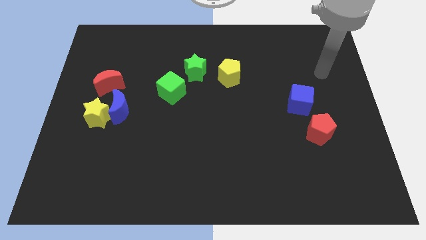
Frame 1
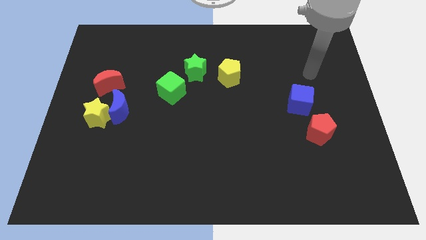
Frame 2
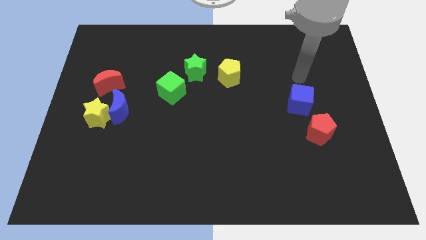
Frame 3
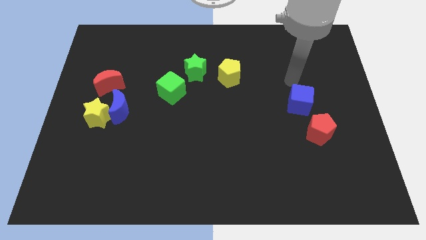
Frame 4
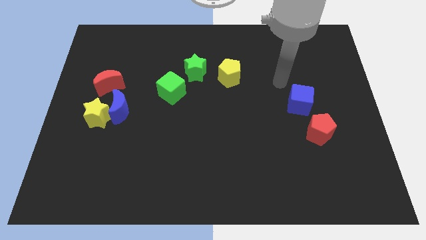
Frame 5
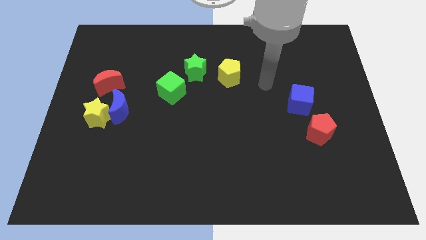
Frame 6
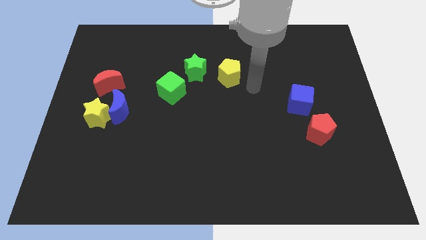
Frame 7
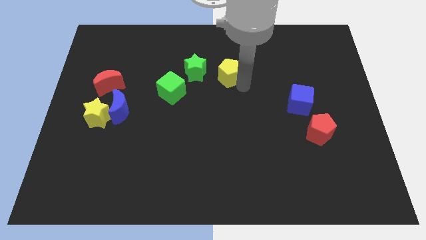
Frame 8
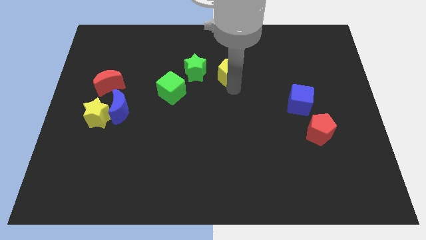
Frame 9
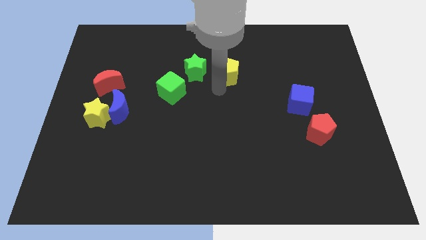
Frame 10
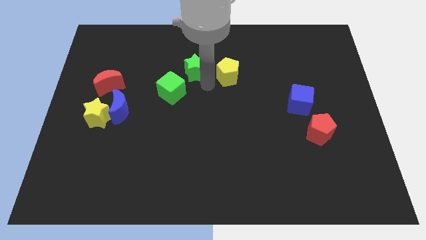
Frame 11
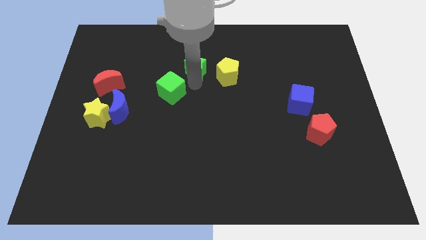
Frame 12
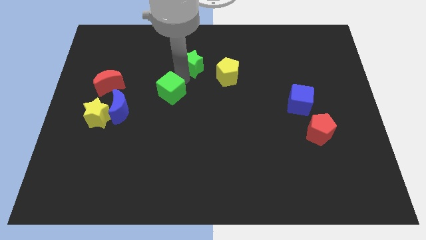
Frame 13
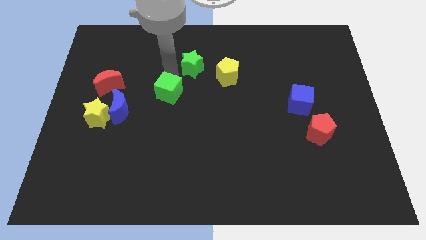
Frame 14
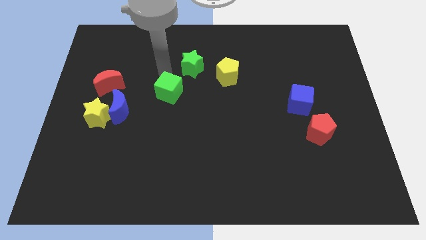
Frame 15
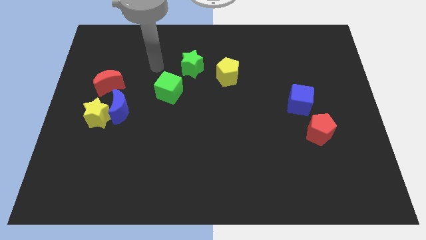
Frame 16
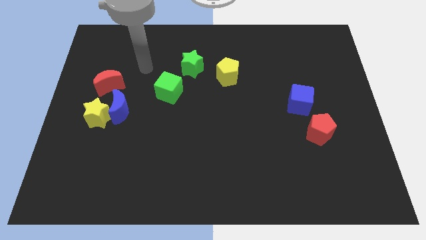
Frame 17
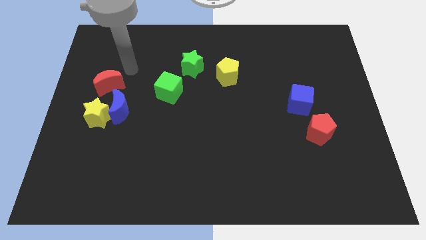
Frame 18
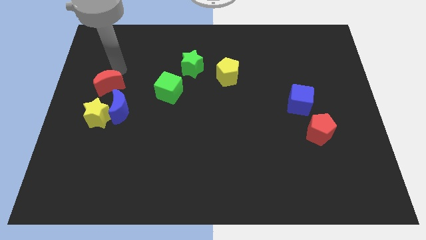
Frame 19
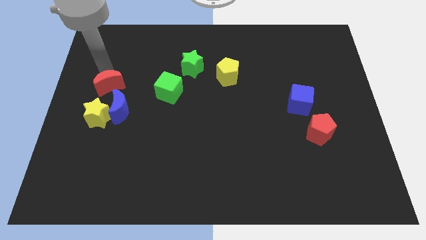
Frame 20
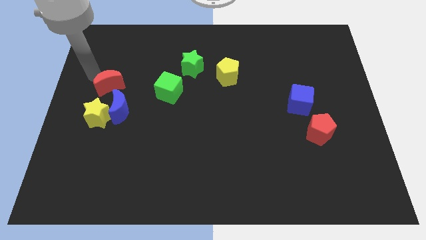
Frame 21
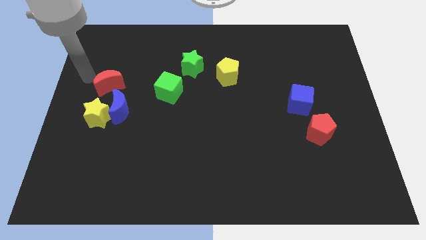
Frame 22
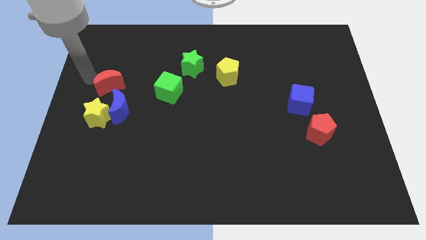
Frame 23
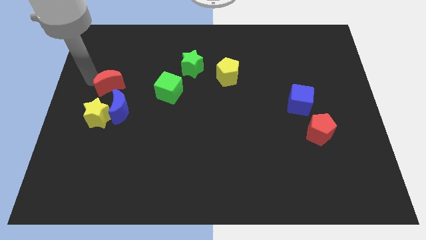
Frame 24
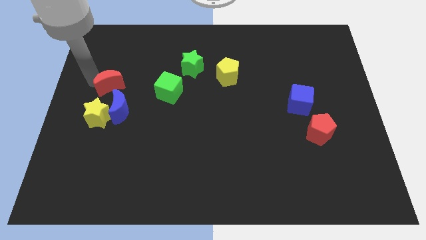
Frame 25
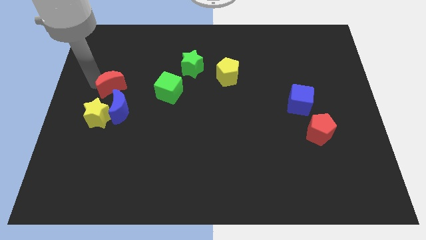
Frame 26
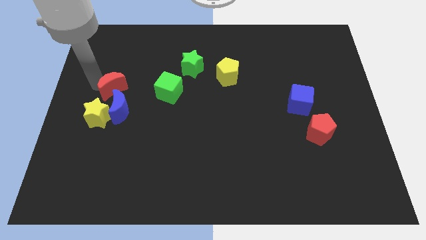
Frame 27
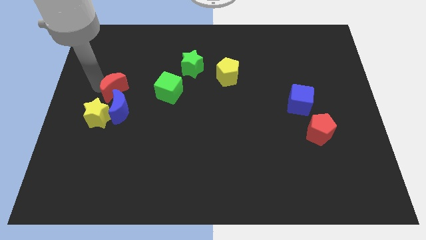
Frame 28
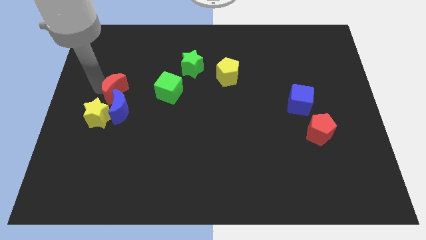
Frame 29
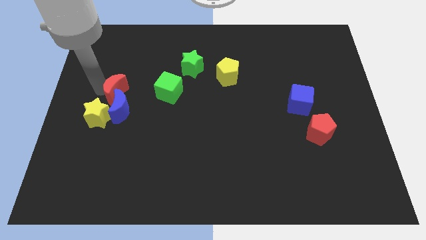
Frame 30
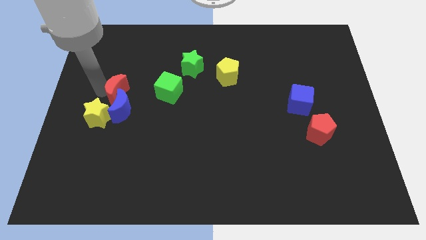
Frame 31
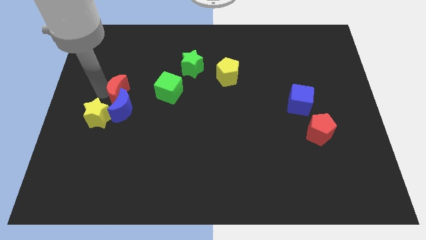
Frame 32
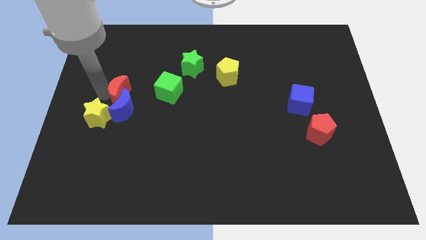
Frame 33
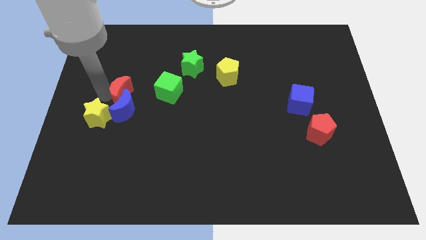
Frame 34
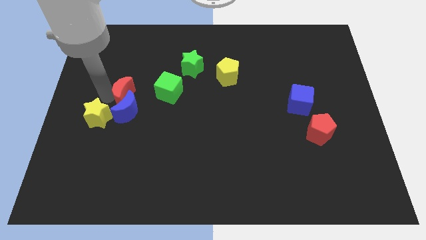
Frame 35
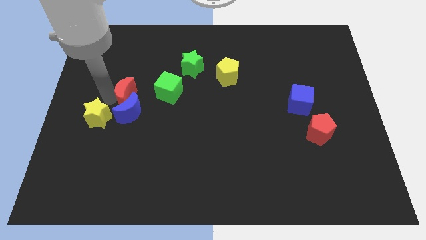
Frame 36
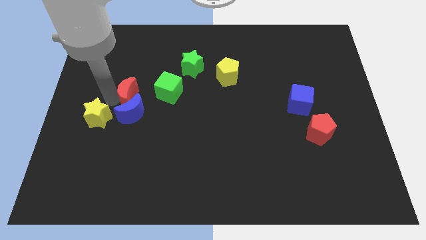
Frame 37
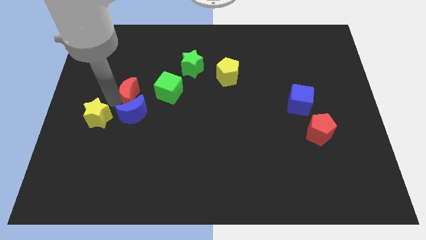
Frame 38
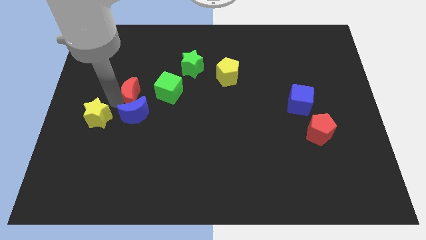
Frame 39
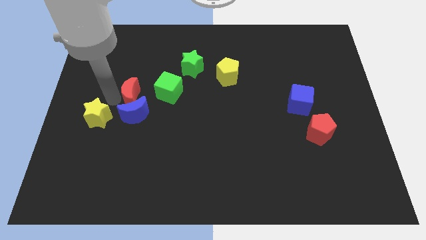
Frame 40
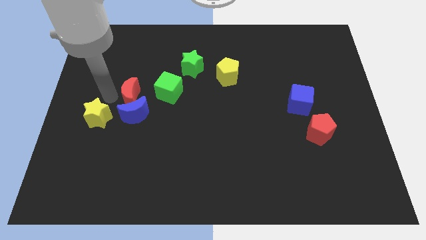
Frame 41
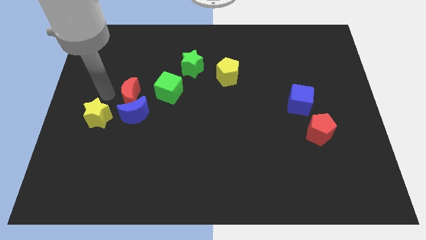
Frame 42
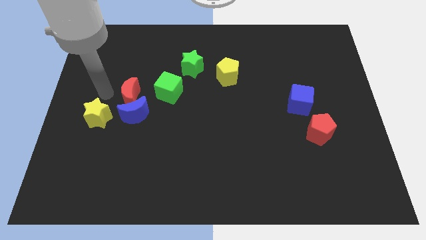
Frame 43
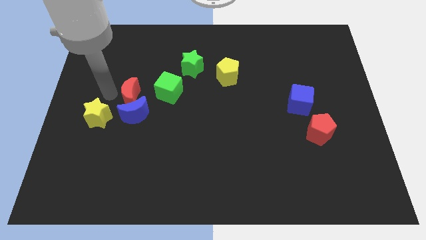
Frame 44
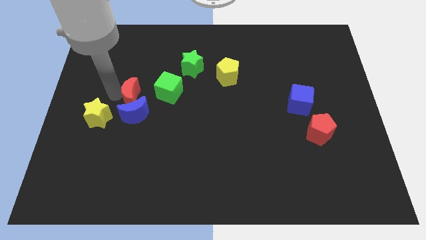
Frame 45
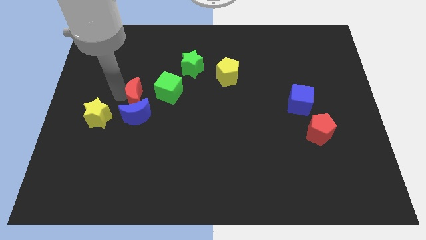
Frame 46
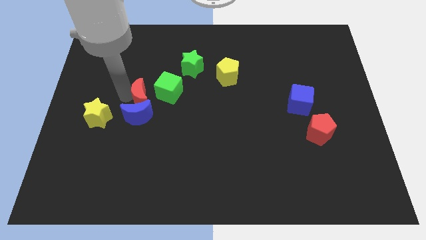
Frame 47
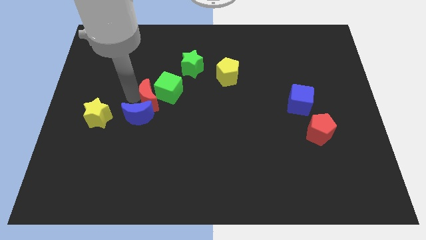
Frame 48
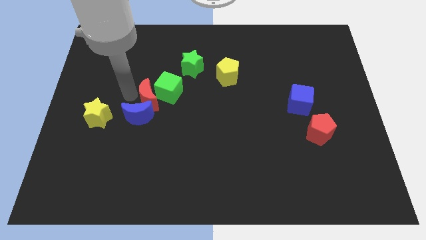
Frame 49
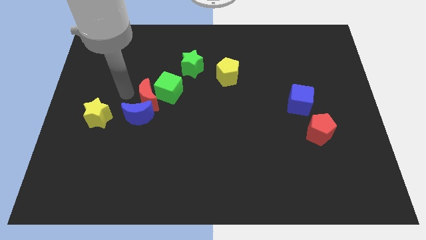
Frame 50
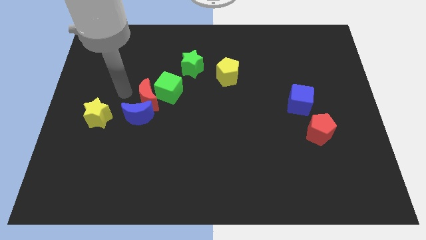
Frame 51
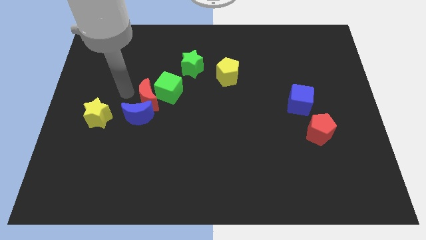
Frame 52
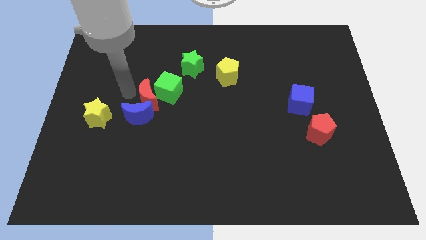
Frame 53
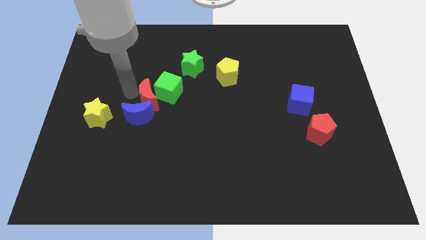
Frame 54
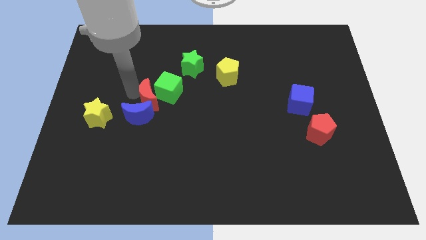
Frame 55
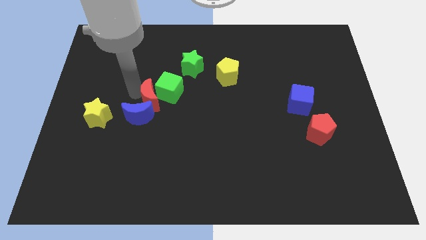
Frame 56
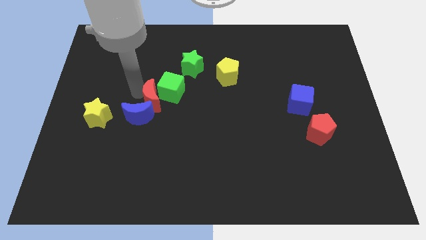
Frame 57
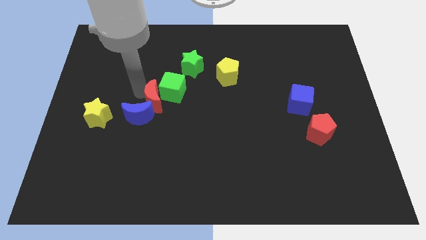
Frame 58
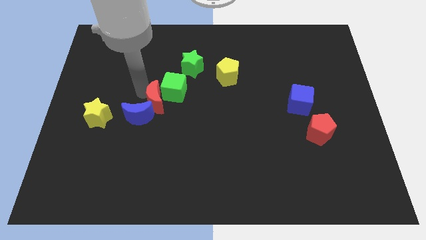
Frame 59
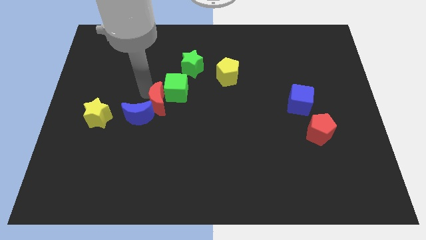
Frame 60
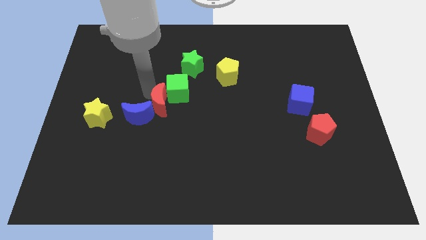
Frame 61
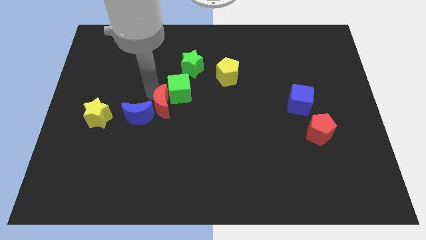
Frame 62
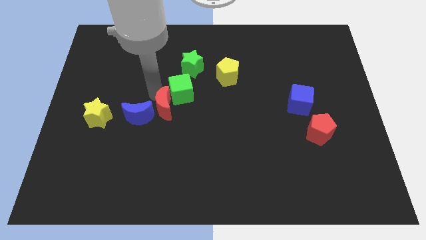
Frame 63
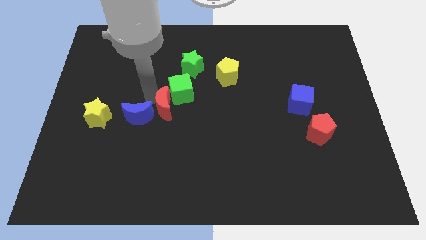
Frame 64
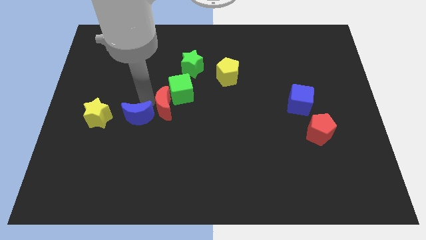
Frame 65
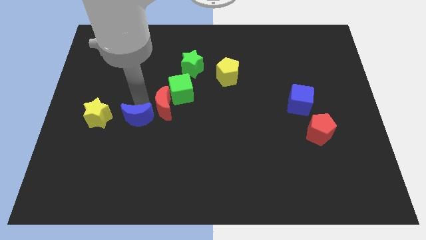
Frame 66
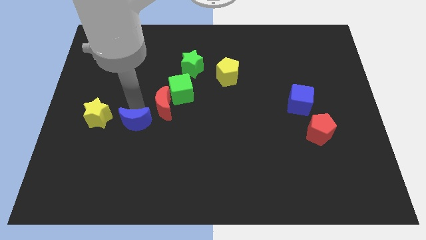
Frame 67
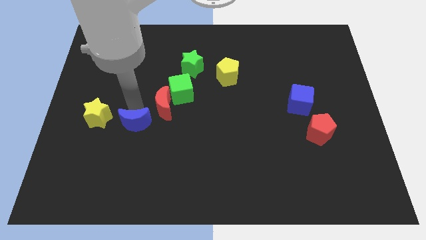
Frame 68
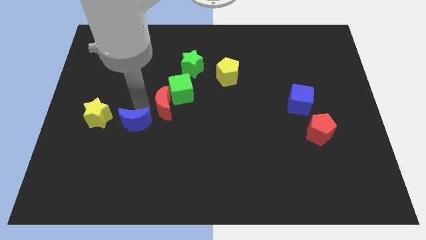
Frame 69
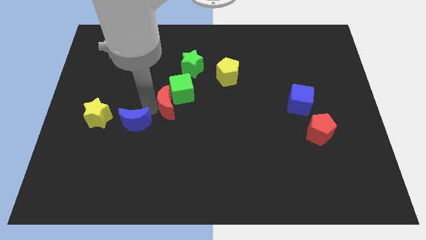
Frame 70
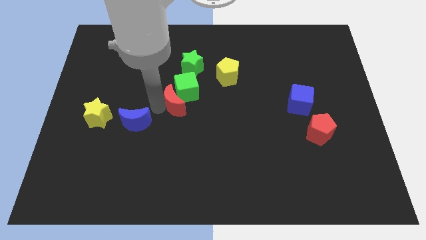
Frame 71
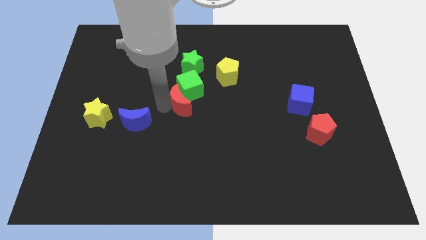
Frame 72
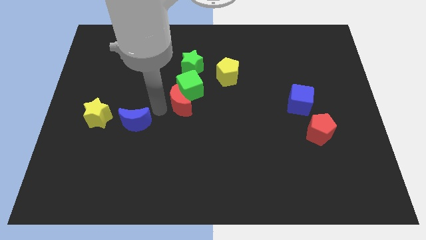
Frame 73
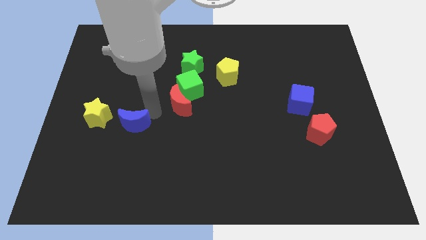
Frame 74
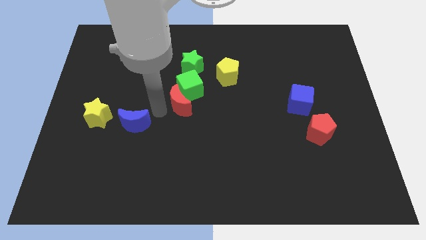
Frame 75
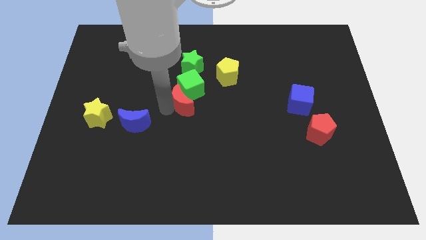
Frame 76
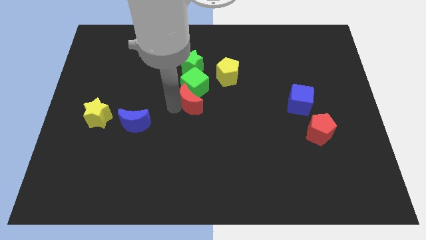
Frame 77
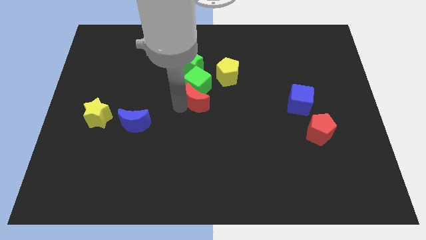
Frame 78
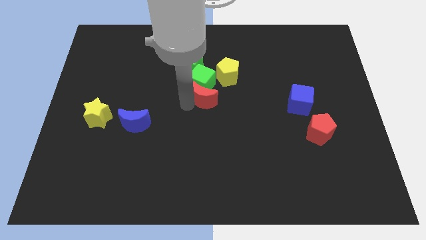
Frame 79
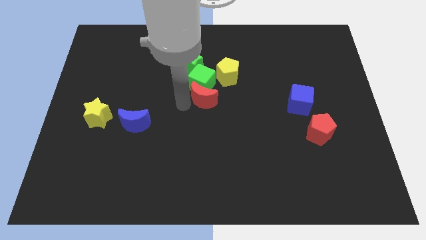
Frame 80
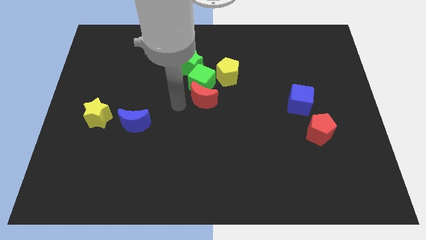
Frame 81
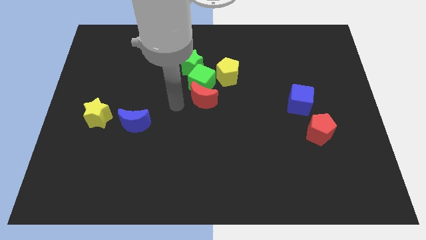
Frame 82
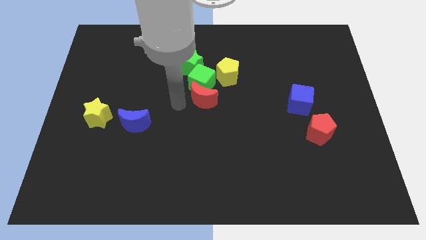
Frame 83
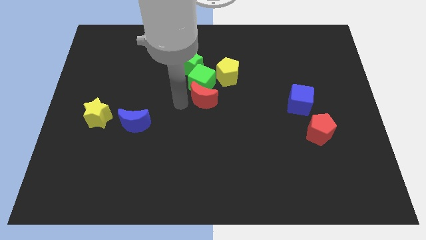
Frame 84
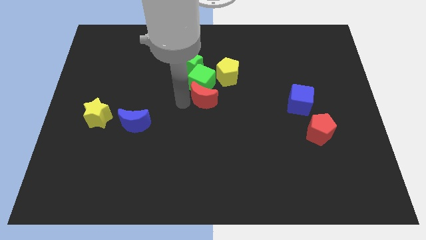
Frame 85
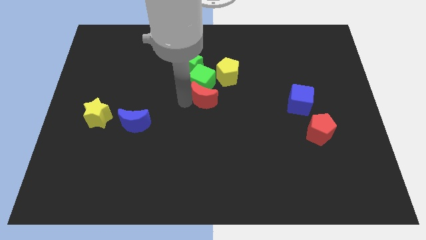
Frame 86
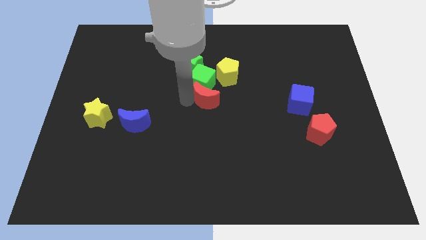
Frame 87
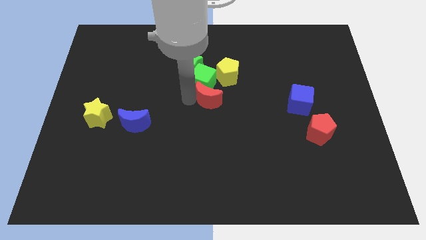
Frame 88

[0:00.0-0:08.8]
push the red moon to the bottom side of the yellow pentagon
